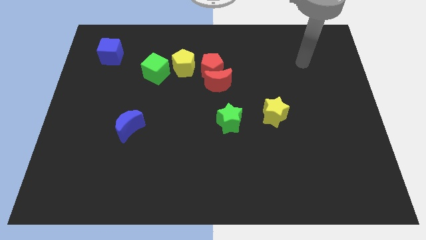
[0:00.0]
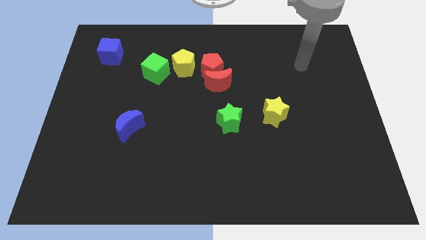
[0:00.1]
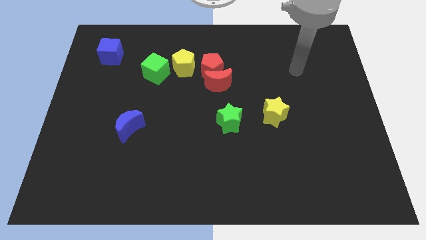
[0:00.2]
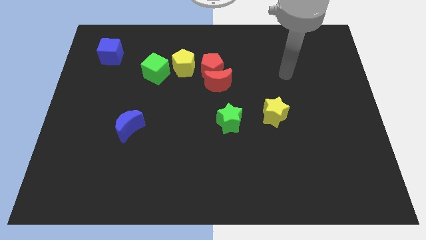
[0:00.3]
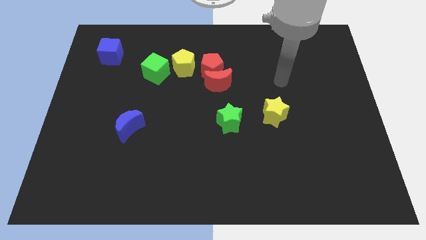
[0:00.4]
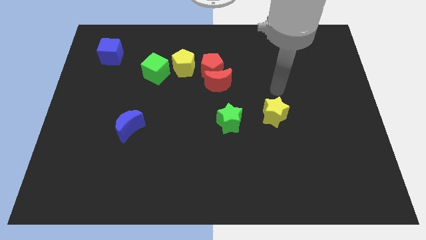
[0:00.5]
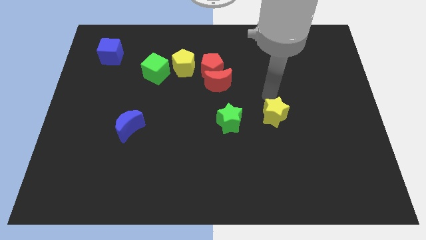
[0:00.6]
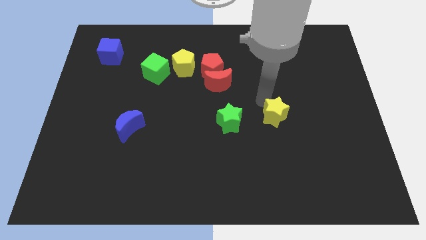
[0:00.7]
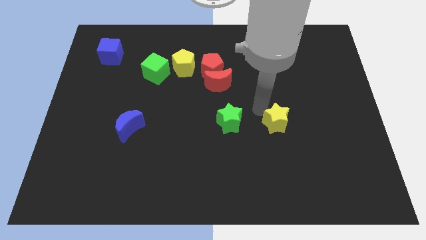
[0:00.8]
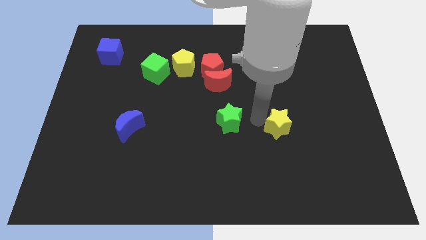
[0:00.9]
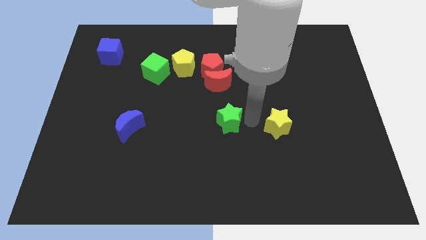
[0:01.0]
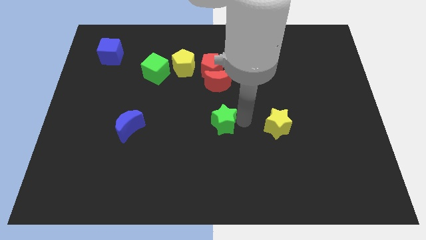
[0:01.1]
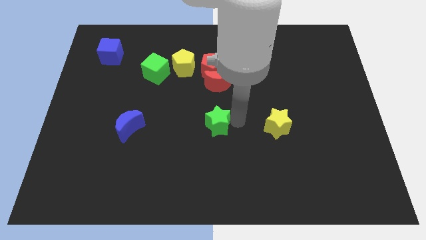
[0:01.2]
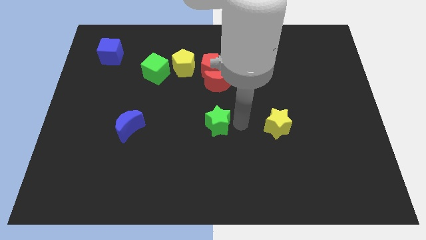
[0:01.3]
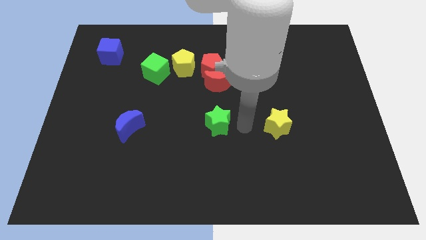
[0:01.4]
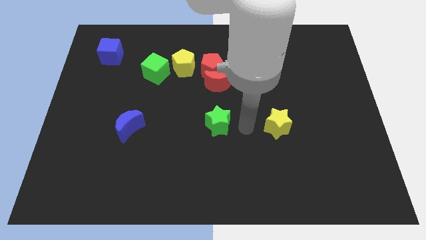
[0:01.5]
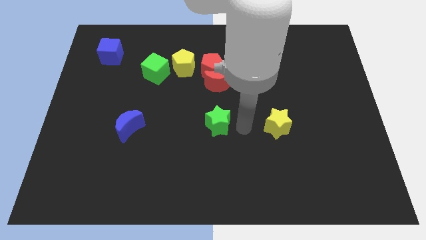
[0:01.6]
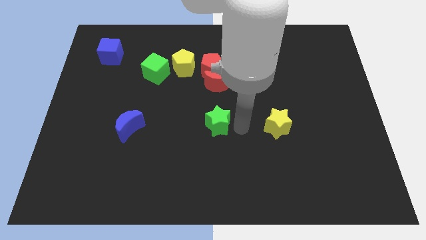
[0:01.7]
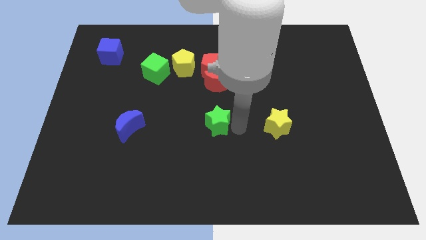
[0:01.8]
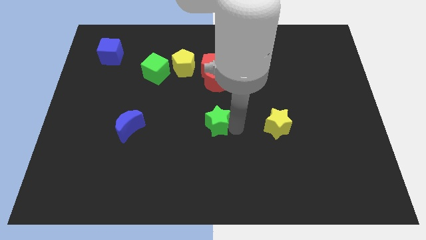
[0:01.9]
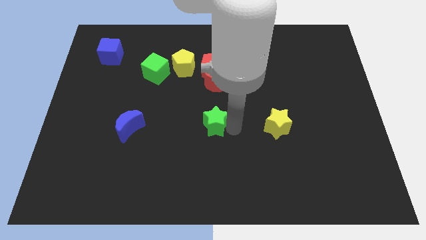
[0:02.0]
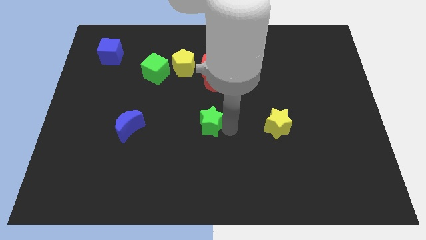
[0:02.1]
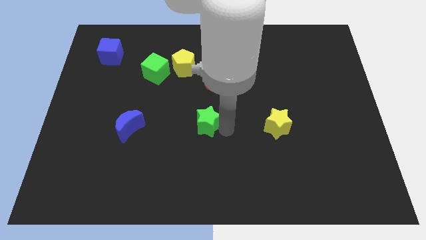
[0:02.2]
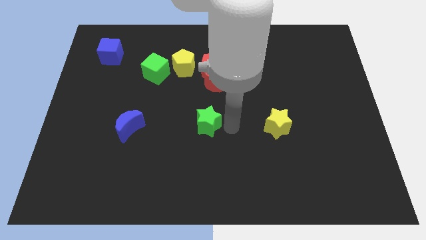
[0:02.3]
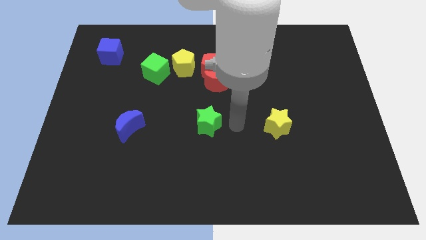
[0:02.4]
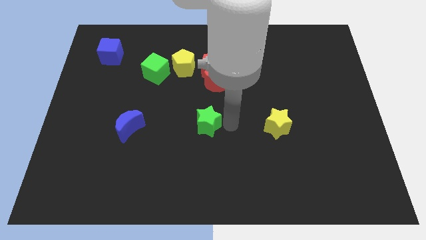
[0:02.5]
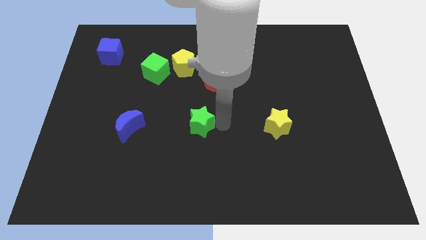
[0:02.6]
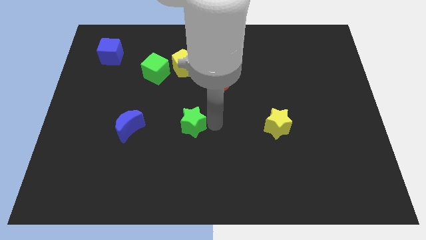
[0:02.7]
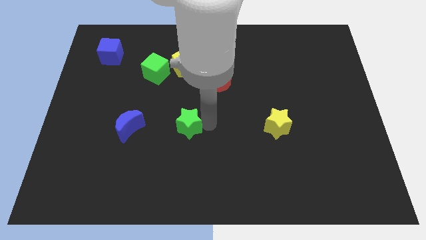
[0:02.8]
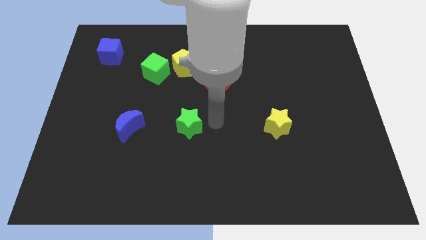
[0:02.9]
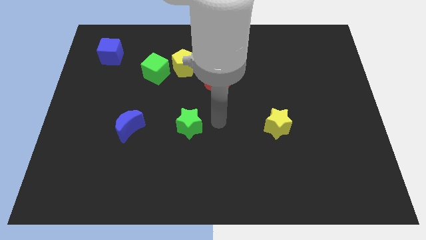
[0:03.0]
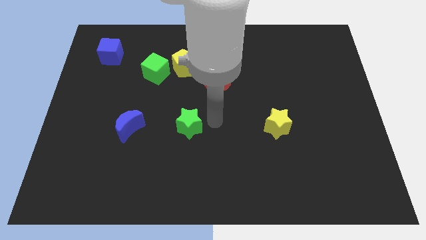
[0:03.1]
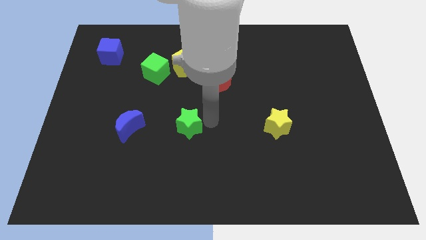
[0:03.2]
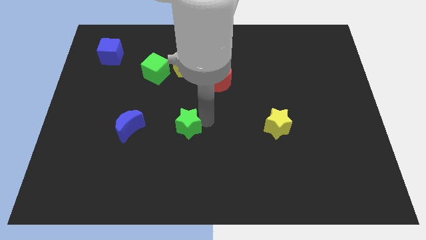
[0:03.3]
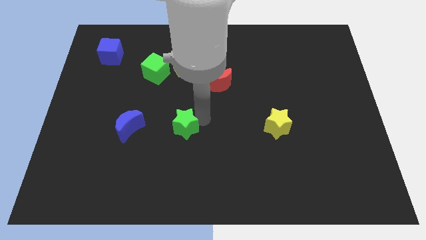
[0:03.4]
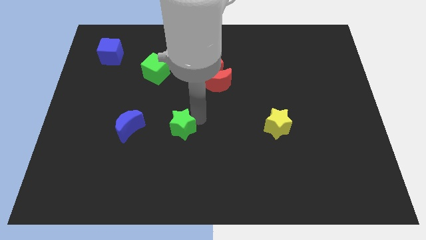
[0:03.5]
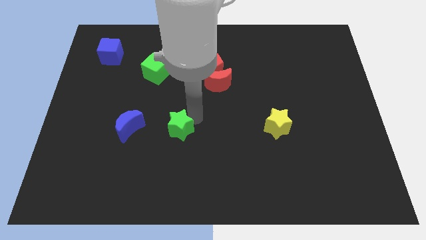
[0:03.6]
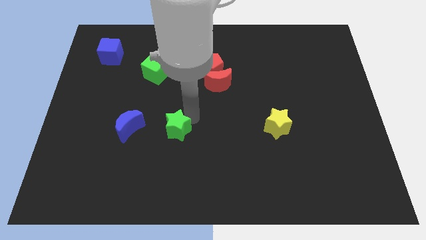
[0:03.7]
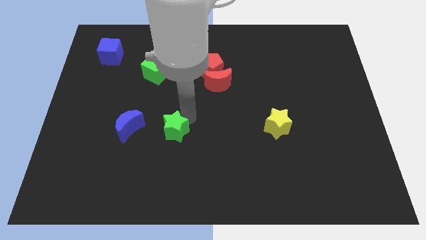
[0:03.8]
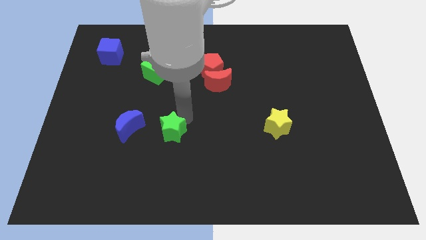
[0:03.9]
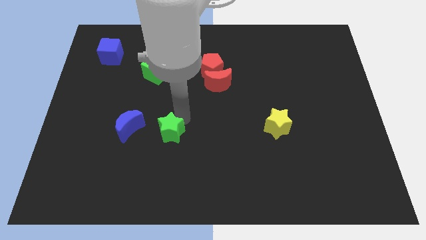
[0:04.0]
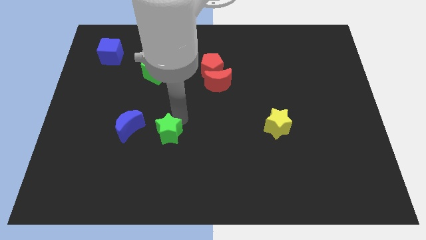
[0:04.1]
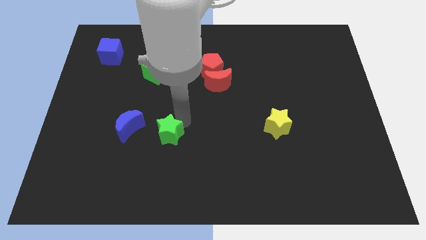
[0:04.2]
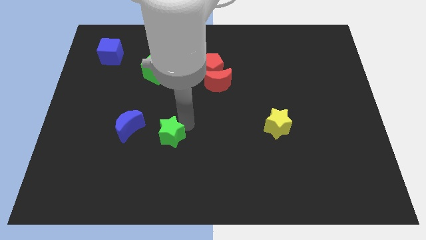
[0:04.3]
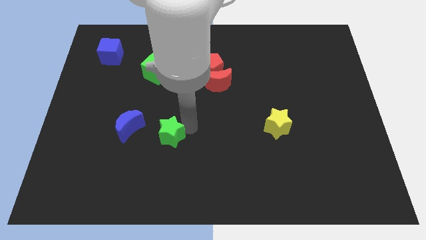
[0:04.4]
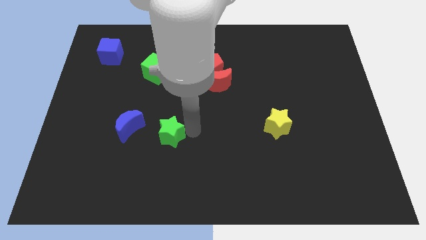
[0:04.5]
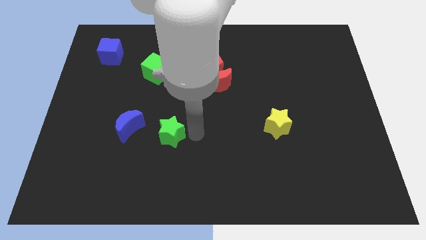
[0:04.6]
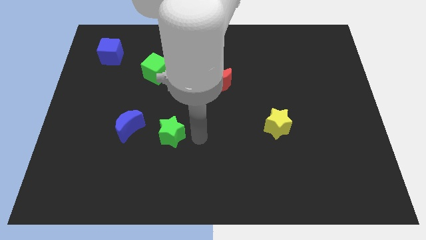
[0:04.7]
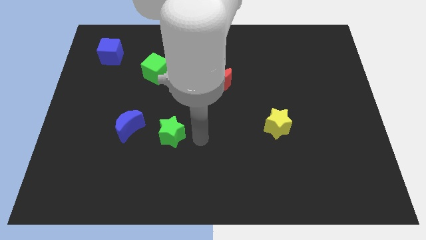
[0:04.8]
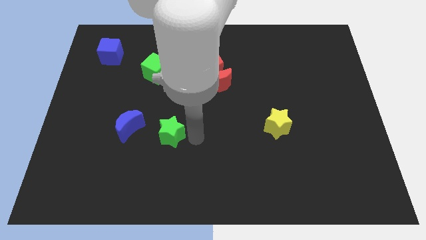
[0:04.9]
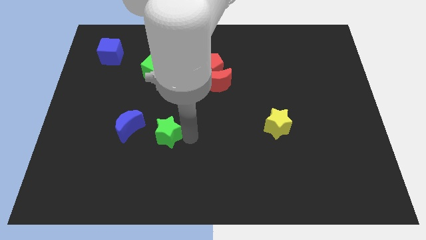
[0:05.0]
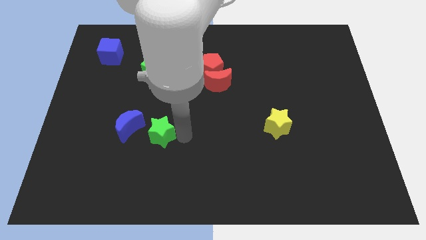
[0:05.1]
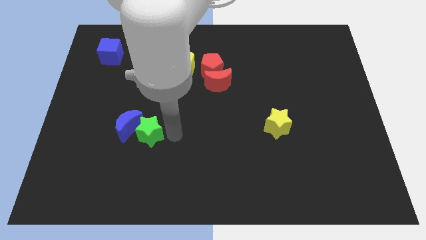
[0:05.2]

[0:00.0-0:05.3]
put the green star next to the blue moon
